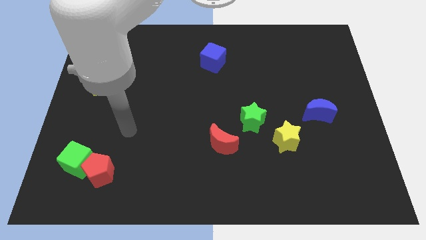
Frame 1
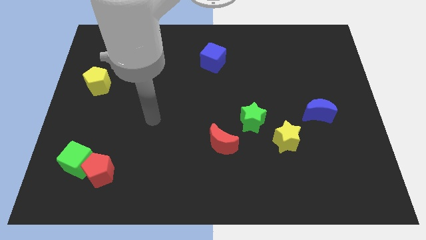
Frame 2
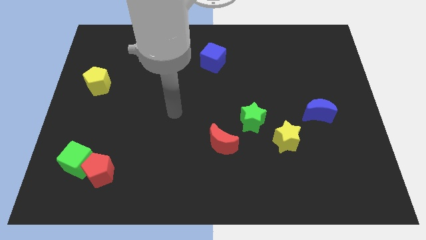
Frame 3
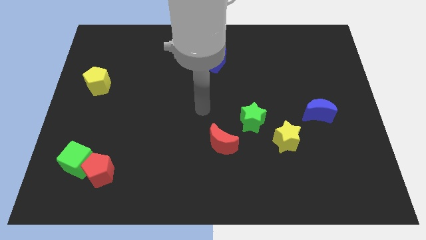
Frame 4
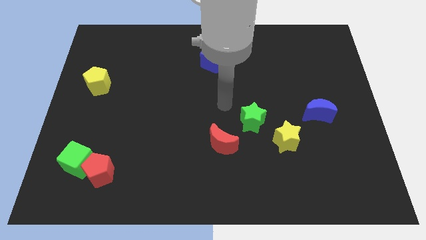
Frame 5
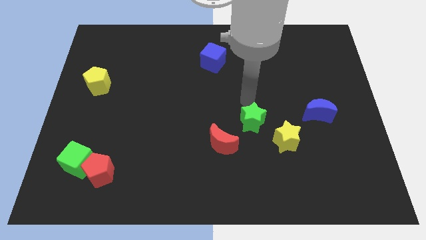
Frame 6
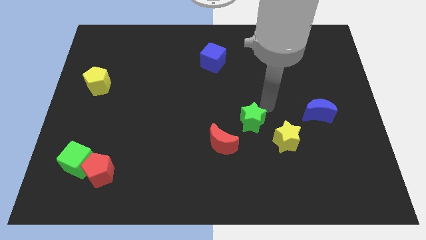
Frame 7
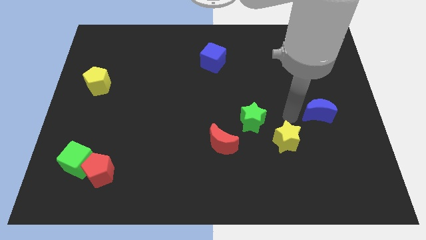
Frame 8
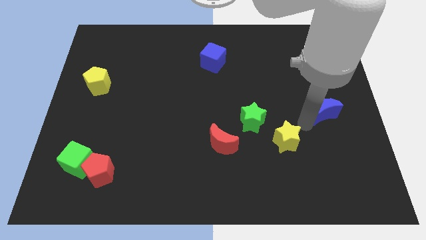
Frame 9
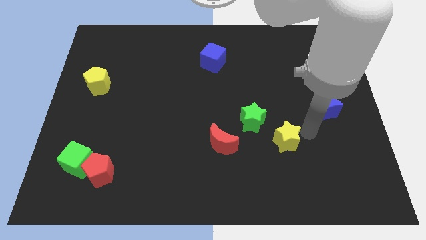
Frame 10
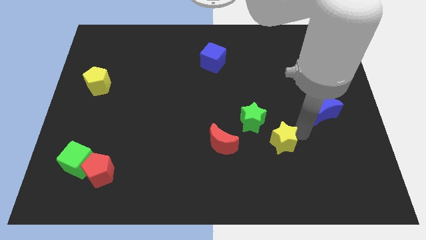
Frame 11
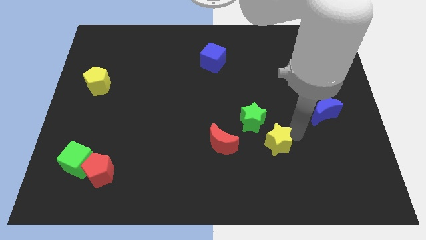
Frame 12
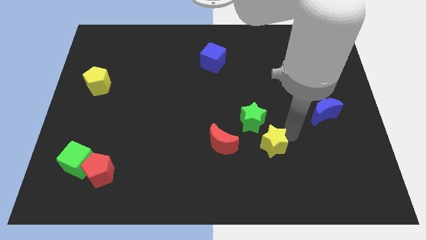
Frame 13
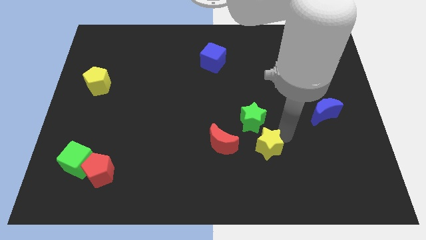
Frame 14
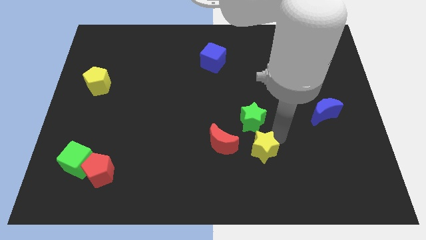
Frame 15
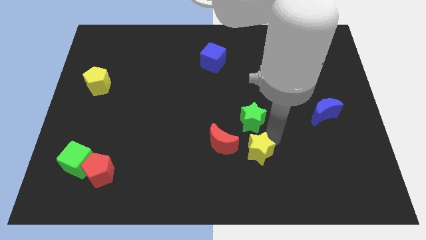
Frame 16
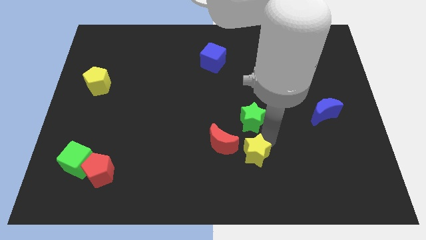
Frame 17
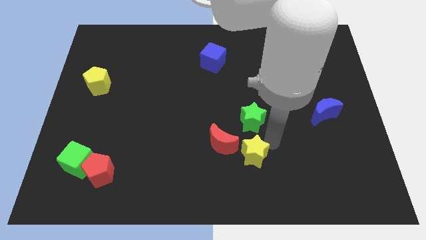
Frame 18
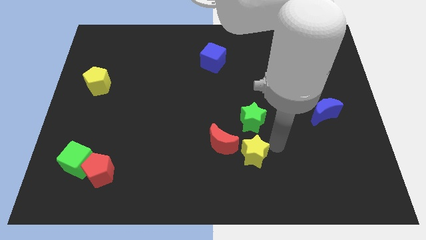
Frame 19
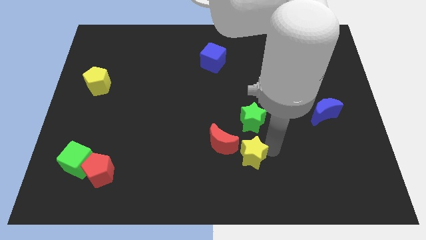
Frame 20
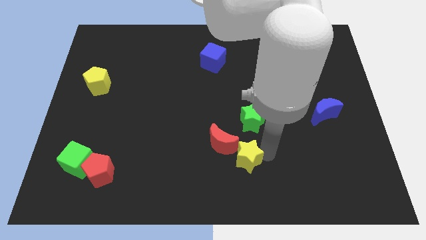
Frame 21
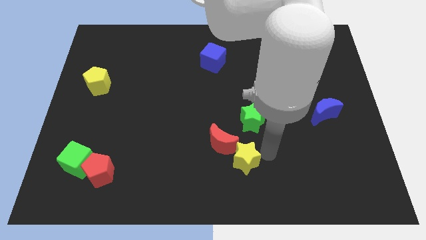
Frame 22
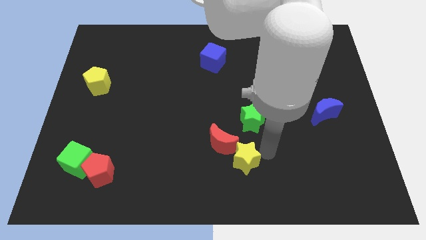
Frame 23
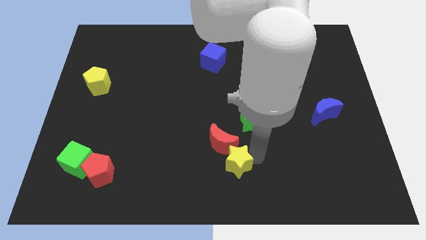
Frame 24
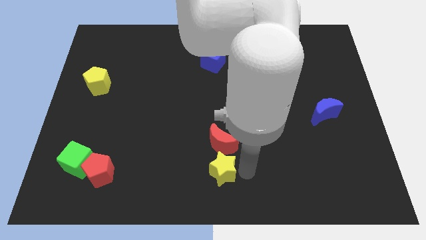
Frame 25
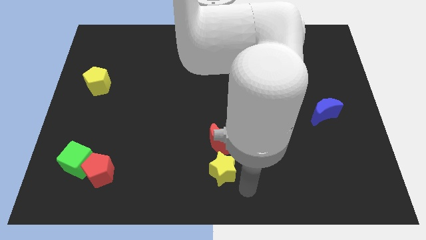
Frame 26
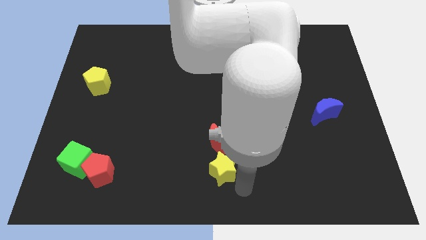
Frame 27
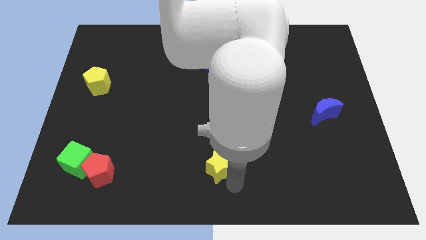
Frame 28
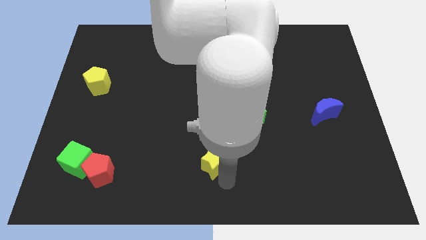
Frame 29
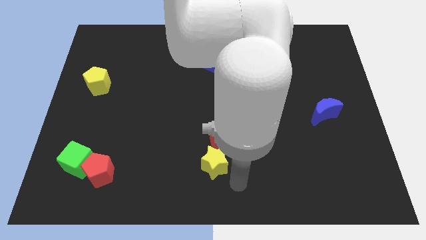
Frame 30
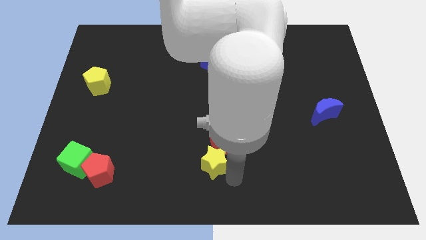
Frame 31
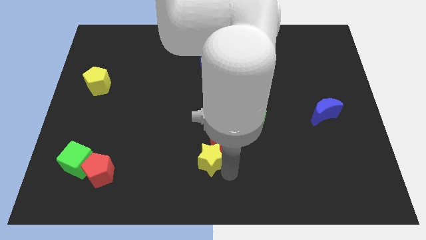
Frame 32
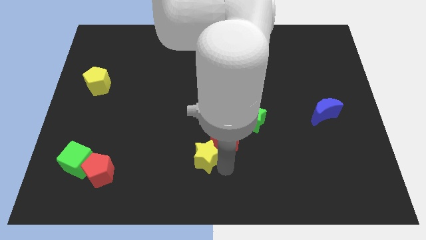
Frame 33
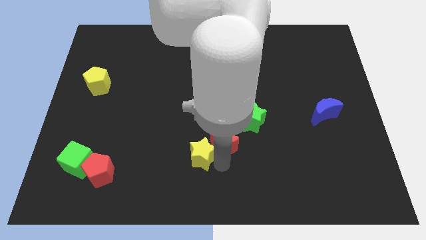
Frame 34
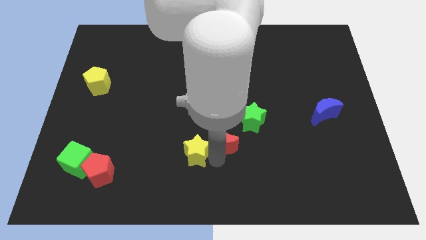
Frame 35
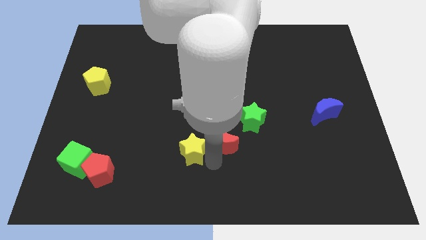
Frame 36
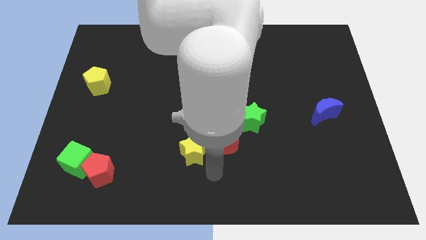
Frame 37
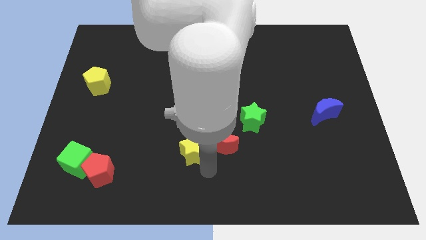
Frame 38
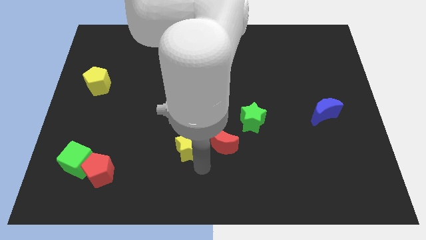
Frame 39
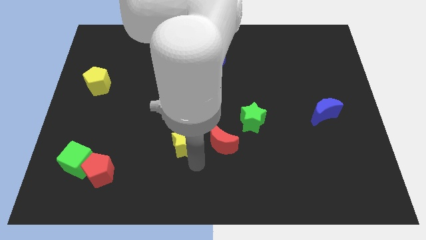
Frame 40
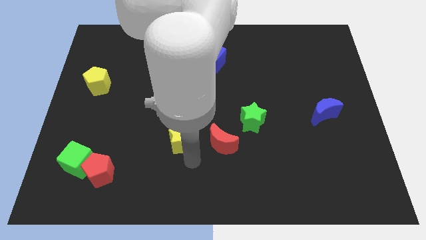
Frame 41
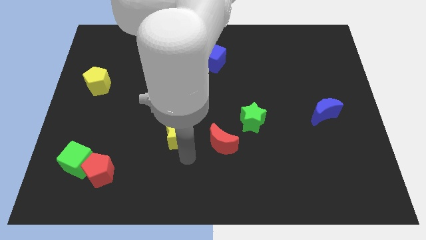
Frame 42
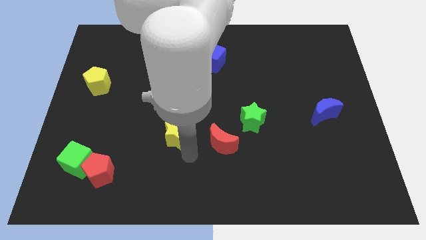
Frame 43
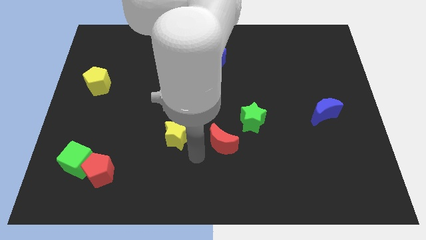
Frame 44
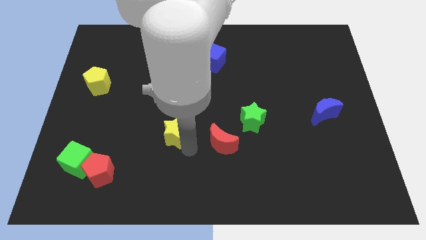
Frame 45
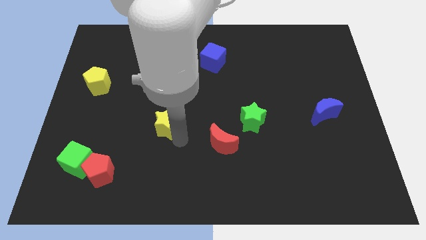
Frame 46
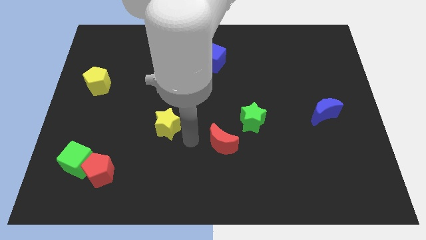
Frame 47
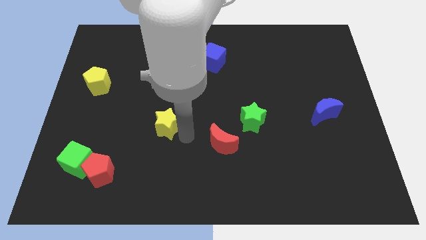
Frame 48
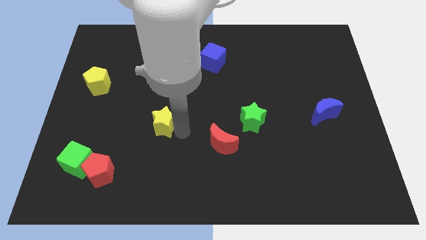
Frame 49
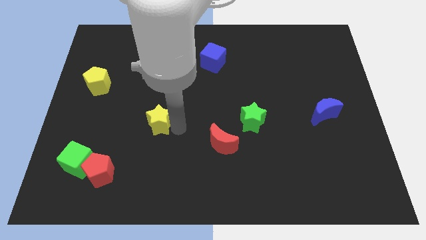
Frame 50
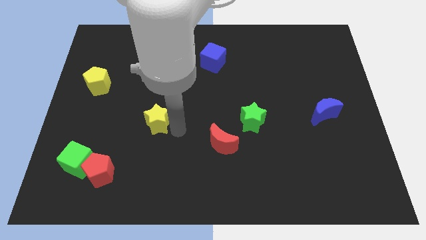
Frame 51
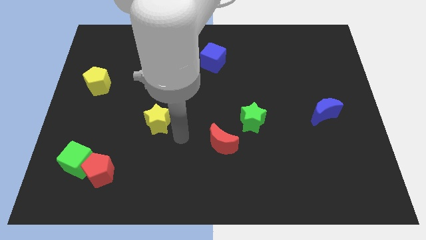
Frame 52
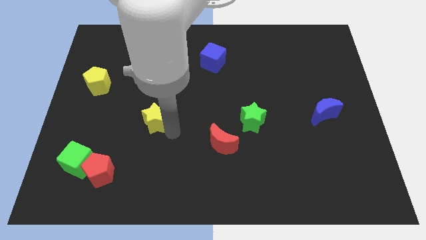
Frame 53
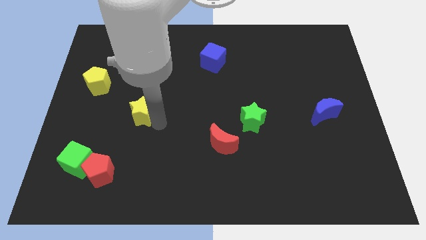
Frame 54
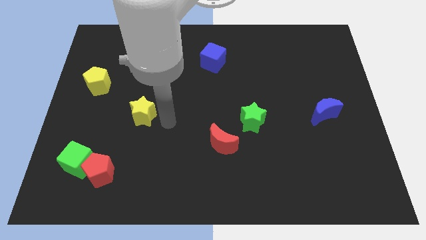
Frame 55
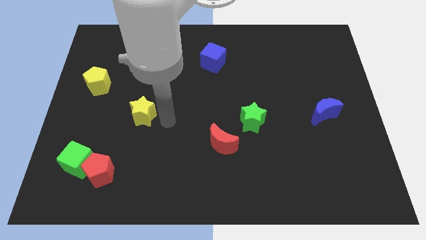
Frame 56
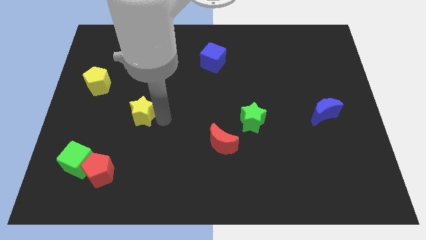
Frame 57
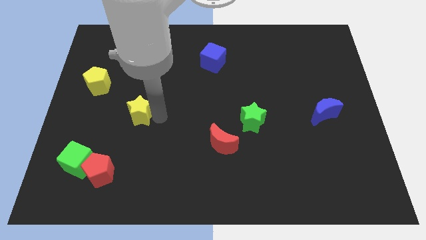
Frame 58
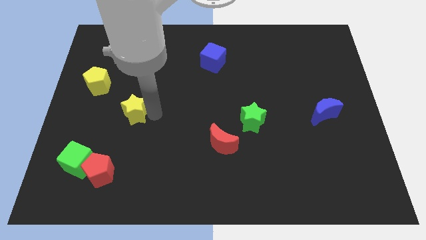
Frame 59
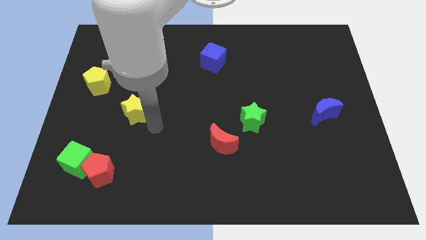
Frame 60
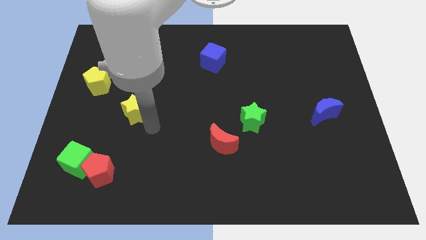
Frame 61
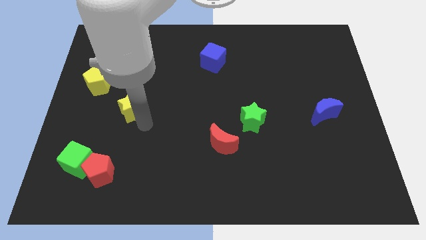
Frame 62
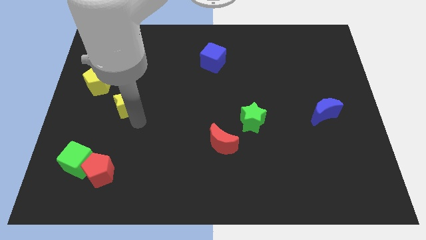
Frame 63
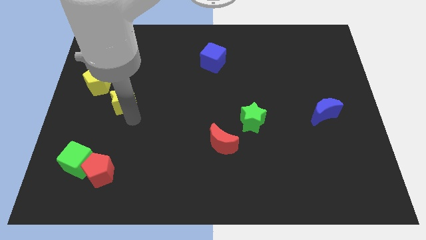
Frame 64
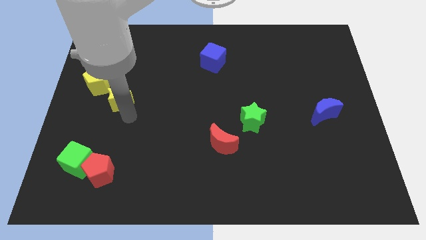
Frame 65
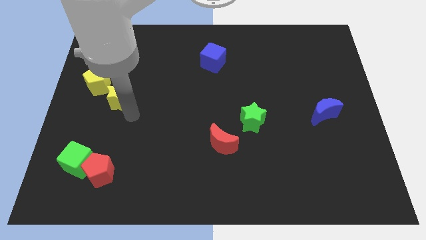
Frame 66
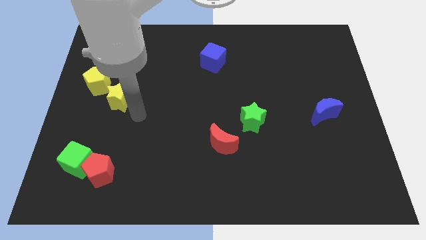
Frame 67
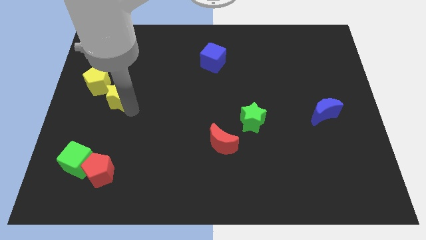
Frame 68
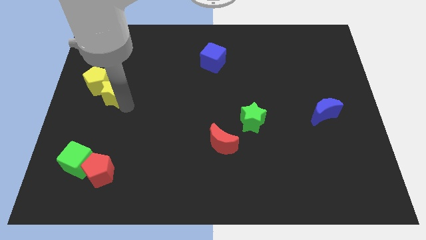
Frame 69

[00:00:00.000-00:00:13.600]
push the yellow star close to the yellow pentagon

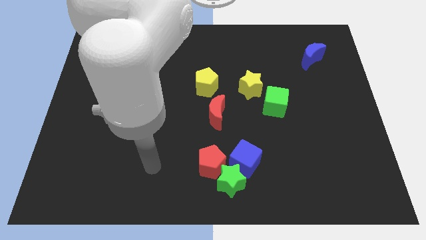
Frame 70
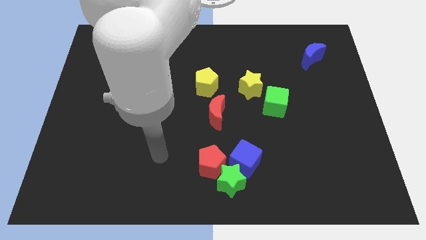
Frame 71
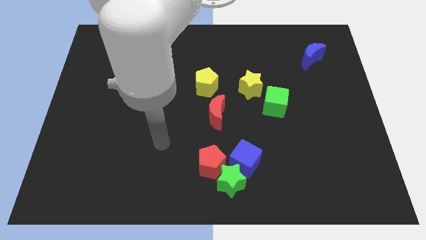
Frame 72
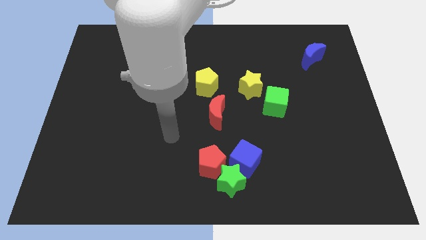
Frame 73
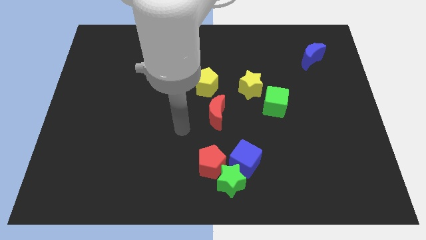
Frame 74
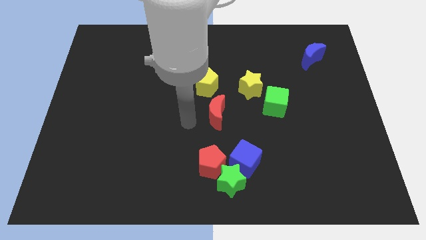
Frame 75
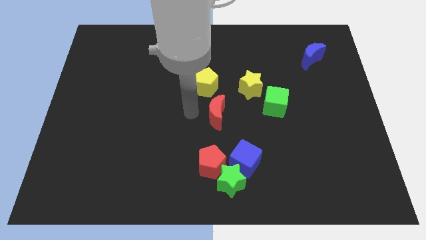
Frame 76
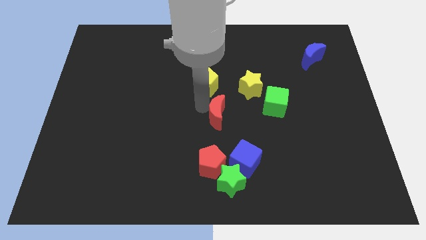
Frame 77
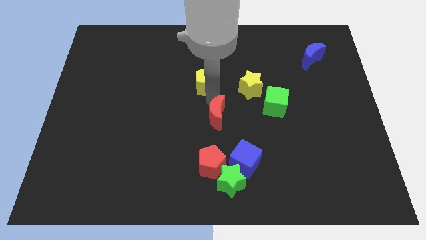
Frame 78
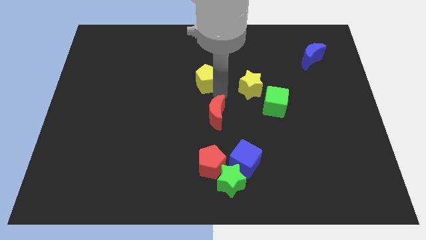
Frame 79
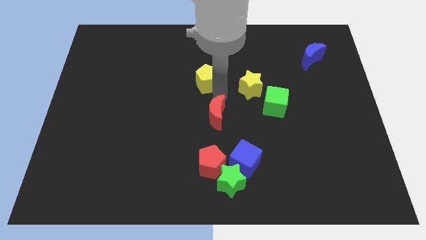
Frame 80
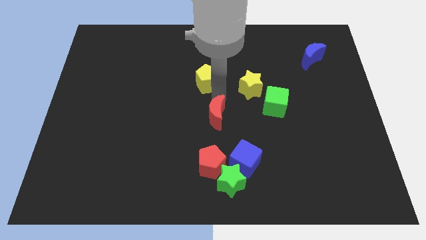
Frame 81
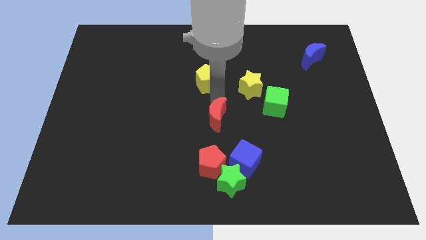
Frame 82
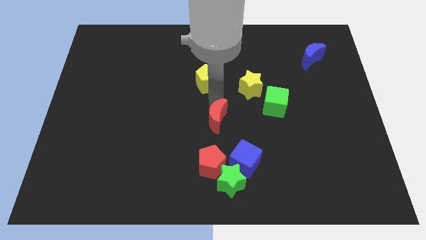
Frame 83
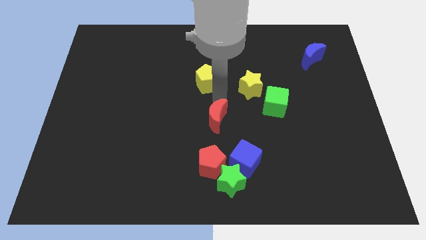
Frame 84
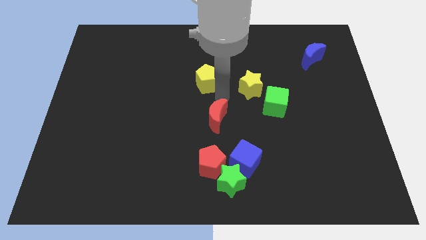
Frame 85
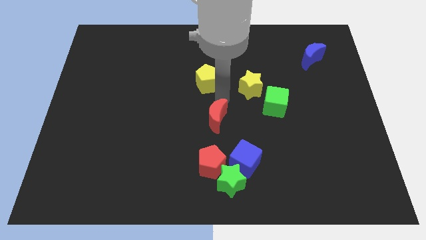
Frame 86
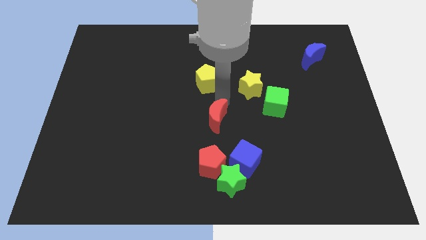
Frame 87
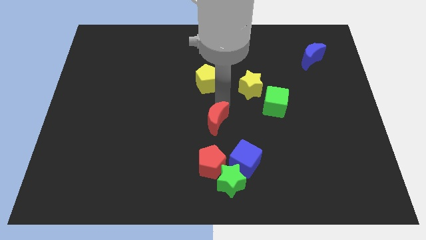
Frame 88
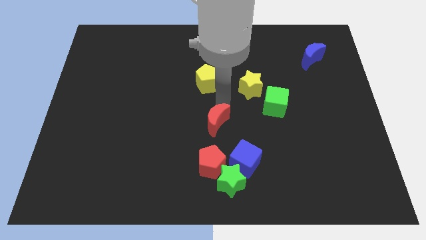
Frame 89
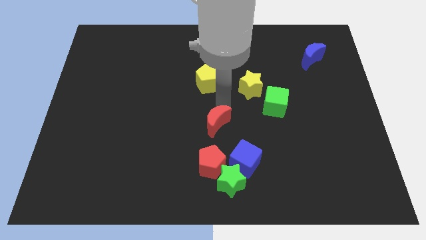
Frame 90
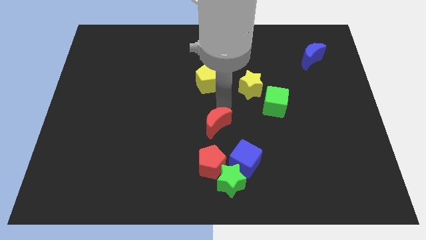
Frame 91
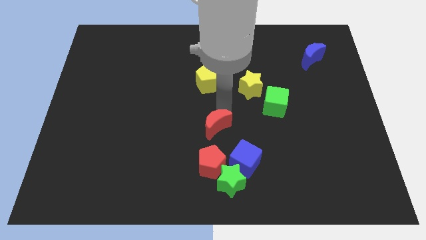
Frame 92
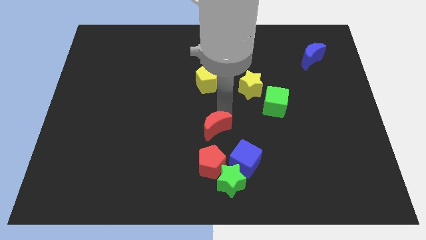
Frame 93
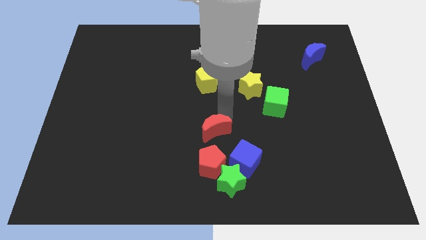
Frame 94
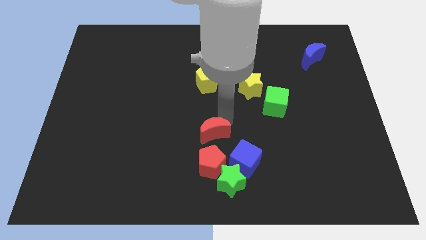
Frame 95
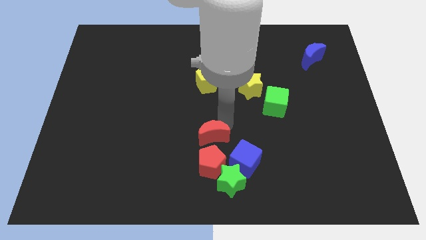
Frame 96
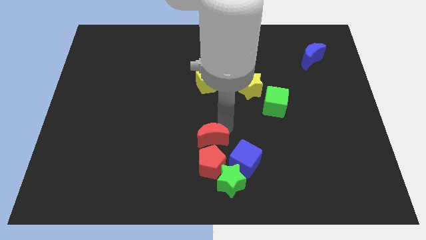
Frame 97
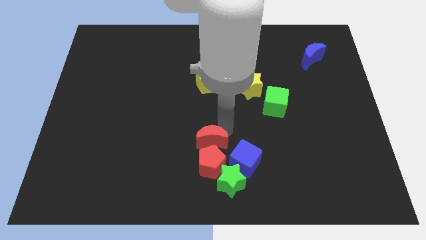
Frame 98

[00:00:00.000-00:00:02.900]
push the red moon to the red pentagon
